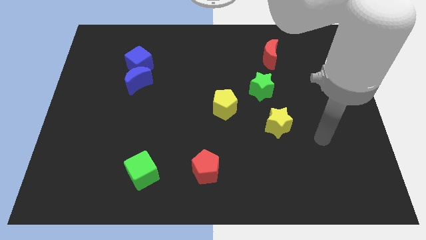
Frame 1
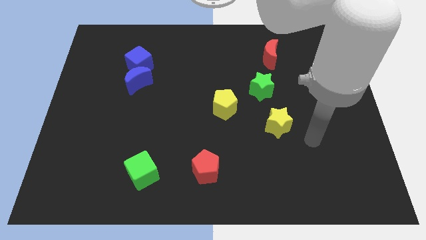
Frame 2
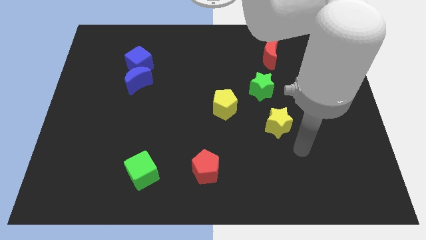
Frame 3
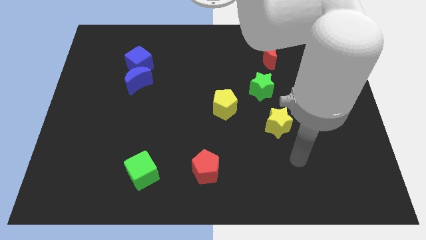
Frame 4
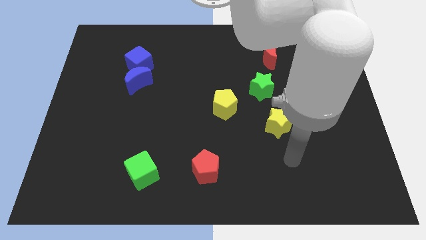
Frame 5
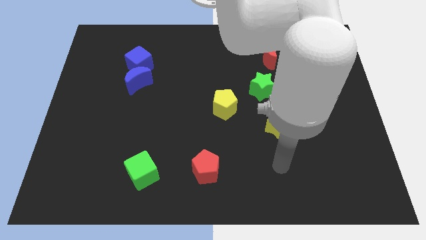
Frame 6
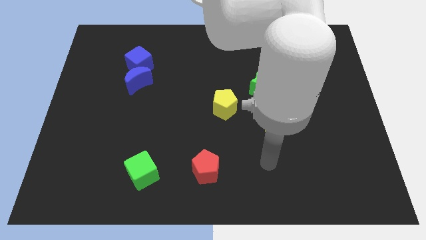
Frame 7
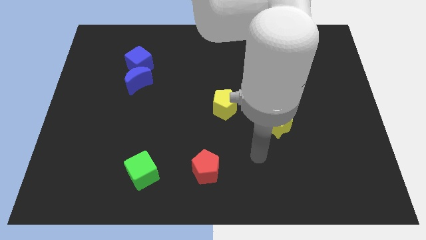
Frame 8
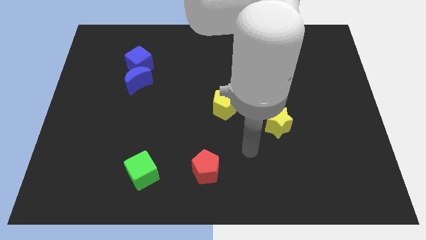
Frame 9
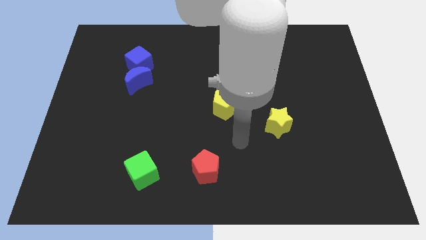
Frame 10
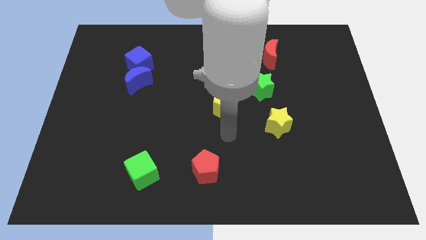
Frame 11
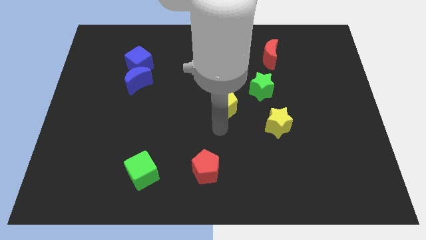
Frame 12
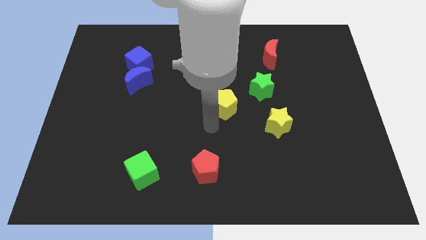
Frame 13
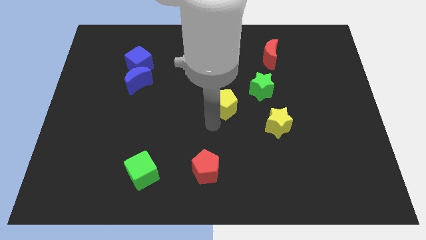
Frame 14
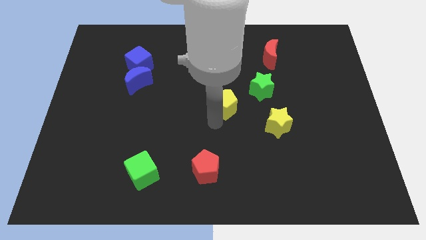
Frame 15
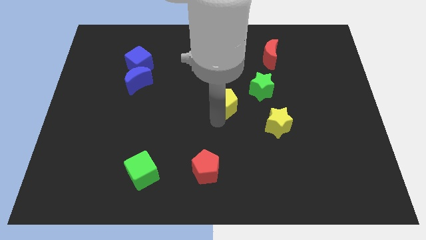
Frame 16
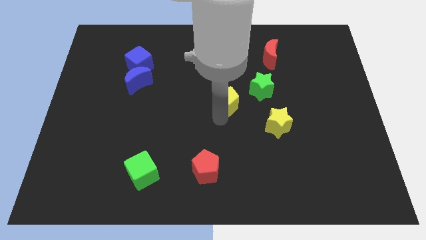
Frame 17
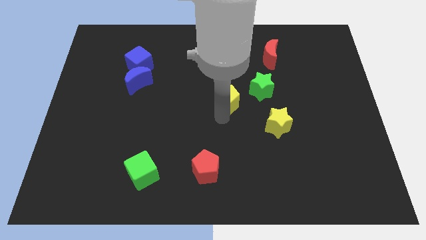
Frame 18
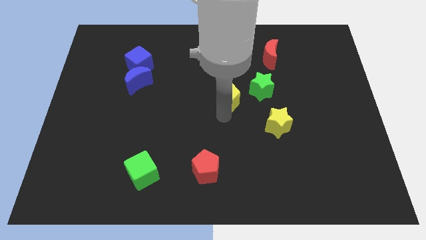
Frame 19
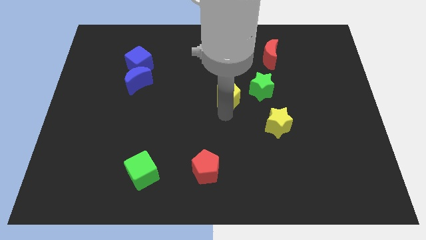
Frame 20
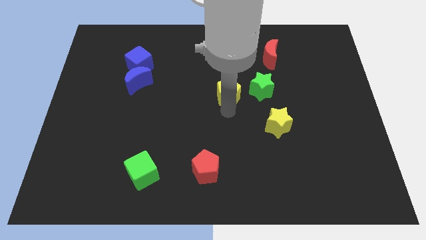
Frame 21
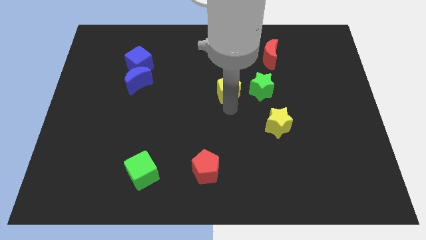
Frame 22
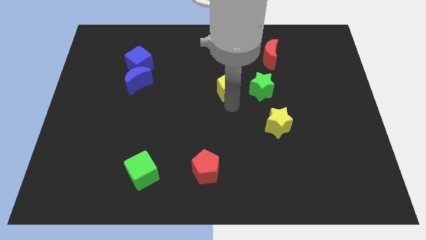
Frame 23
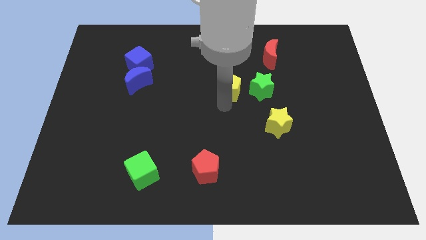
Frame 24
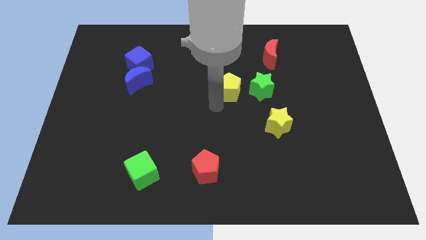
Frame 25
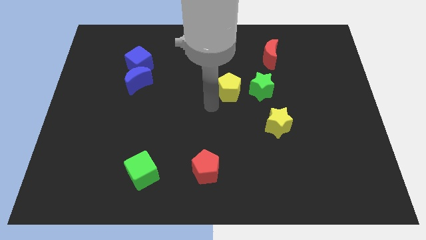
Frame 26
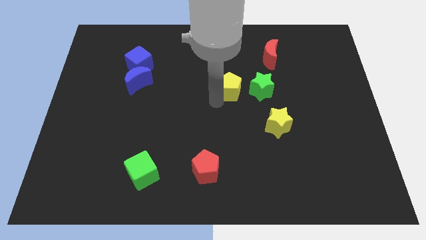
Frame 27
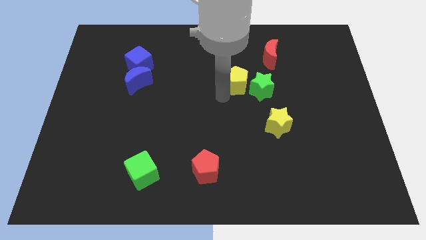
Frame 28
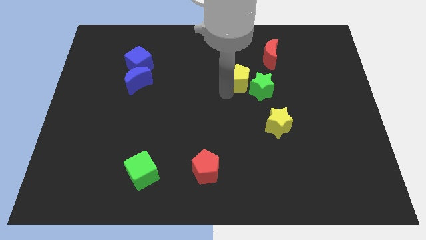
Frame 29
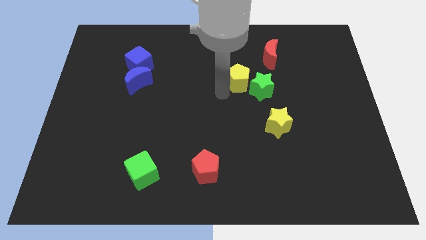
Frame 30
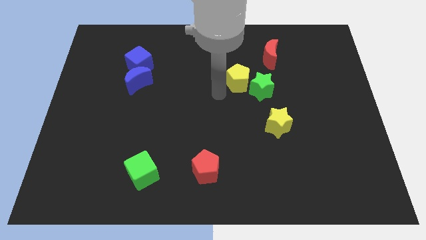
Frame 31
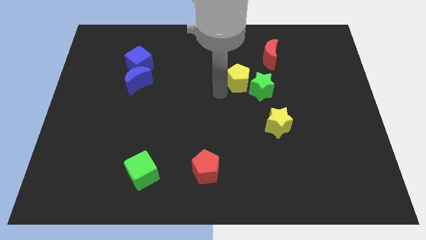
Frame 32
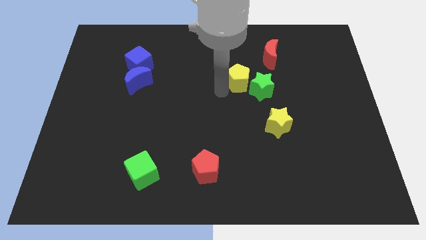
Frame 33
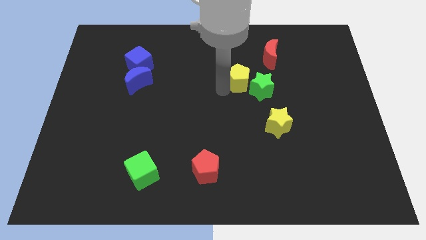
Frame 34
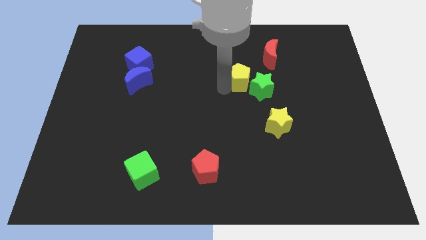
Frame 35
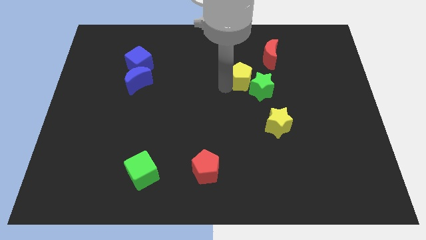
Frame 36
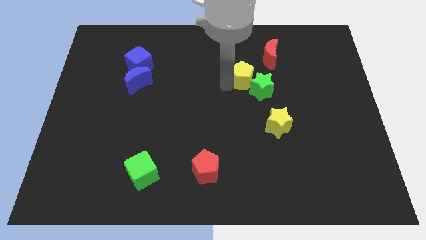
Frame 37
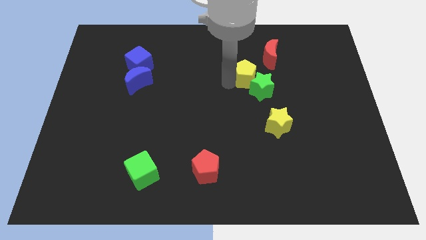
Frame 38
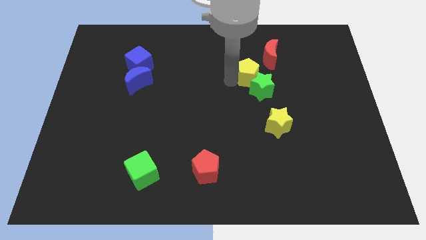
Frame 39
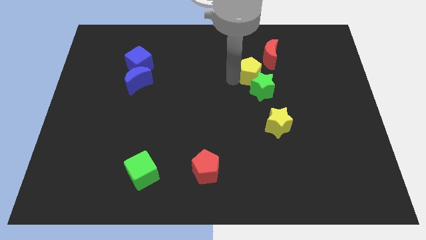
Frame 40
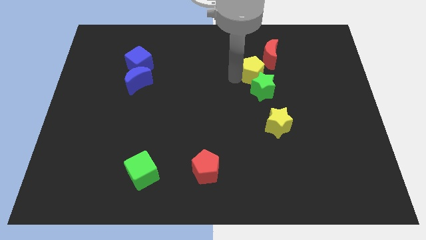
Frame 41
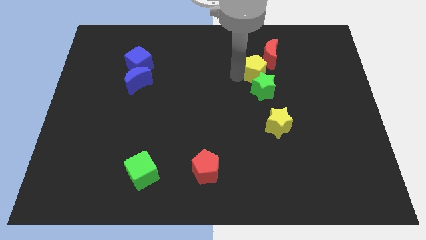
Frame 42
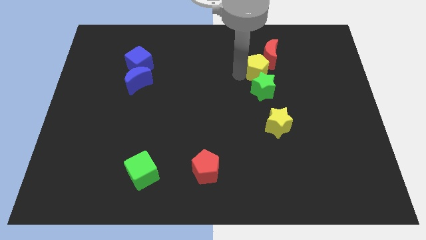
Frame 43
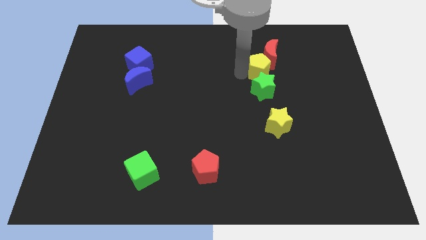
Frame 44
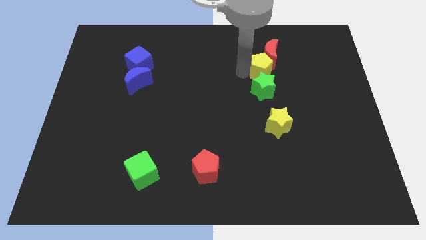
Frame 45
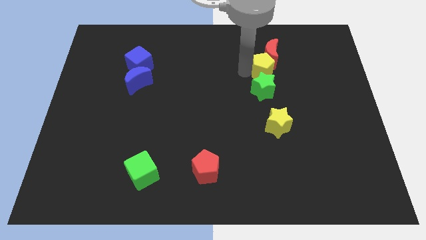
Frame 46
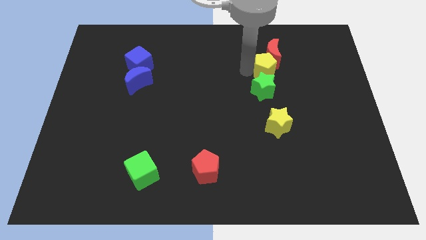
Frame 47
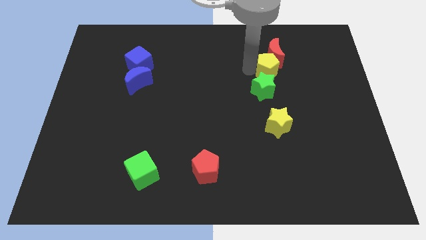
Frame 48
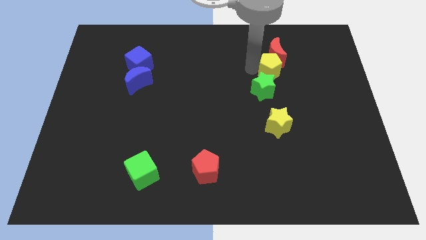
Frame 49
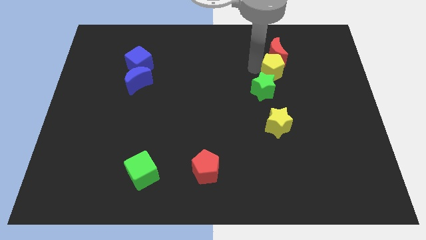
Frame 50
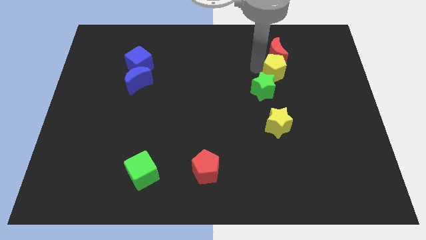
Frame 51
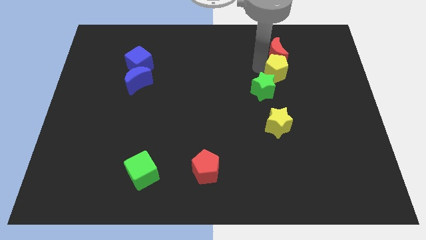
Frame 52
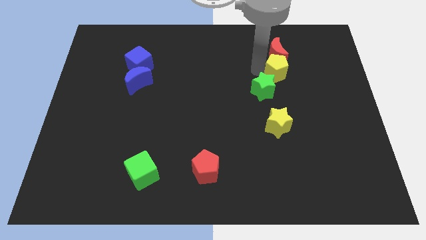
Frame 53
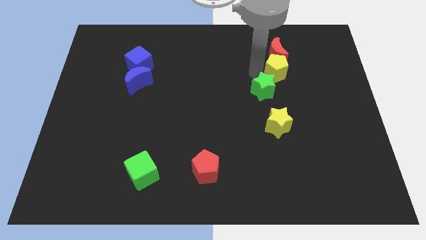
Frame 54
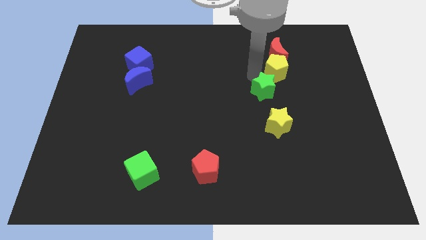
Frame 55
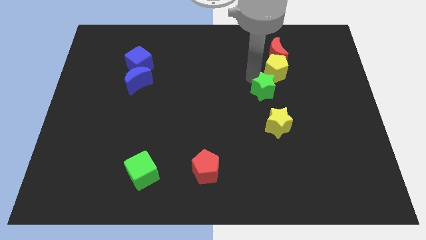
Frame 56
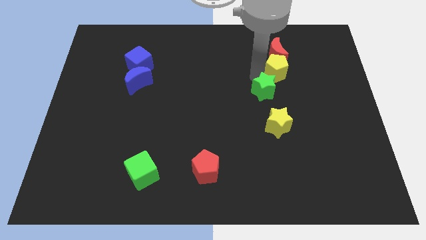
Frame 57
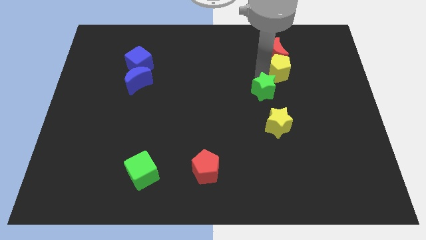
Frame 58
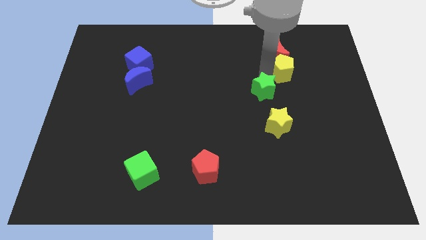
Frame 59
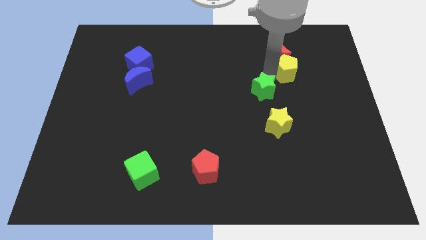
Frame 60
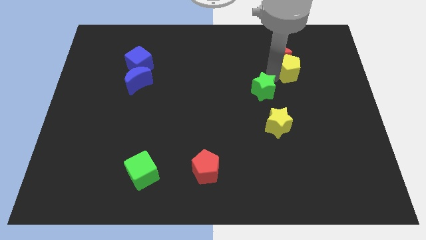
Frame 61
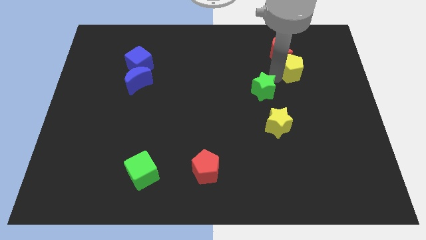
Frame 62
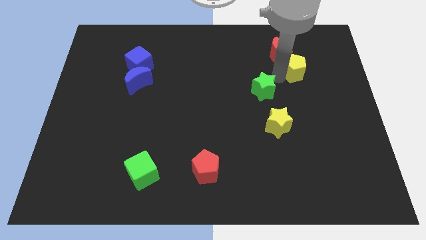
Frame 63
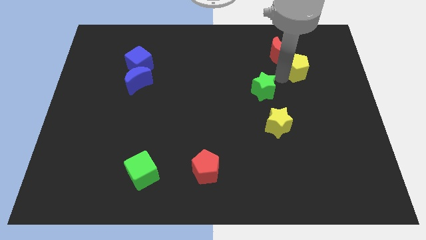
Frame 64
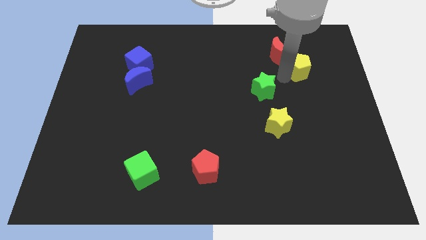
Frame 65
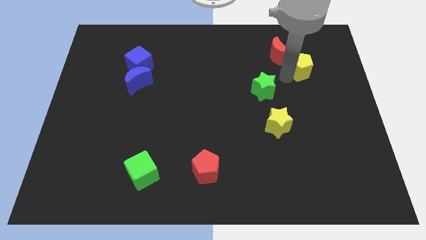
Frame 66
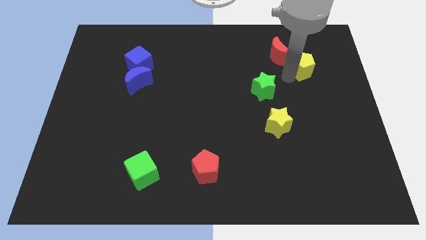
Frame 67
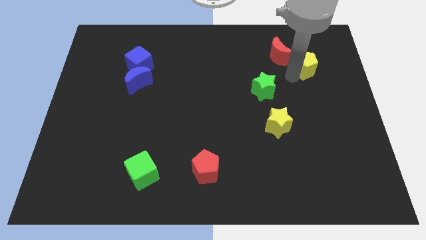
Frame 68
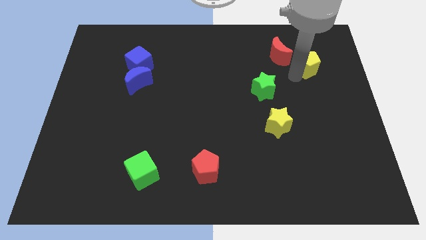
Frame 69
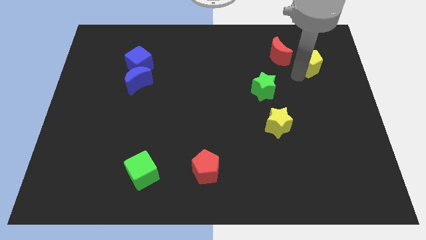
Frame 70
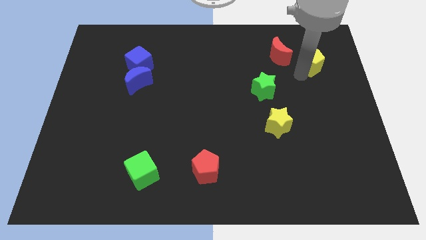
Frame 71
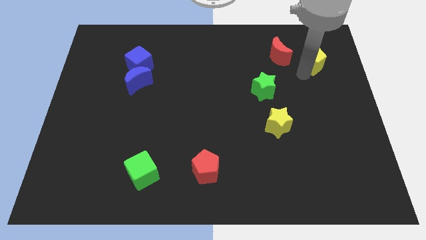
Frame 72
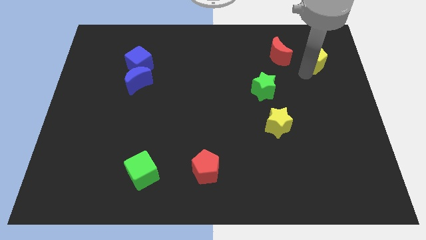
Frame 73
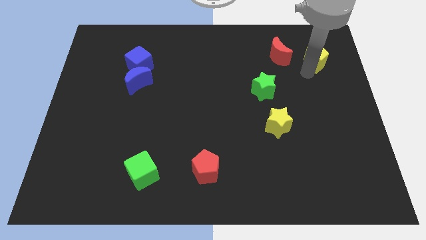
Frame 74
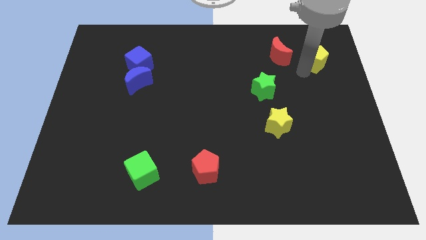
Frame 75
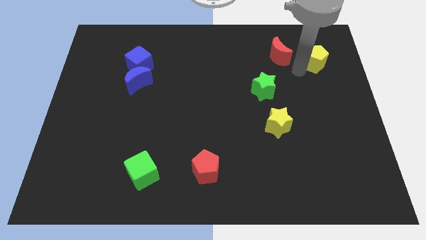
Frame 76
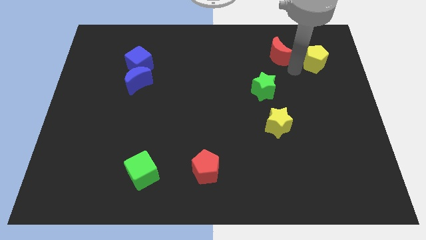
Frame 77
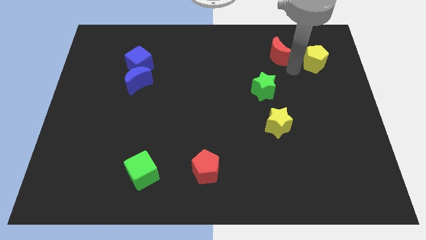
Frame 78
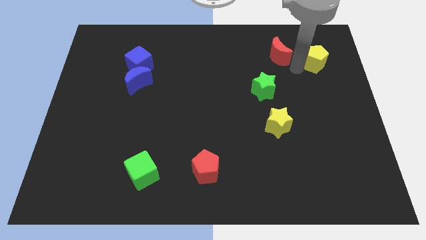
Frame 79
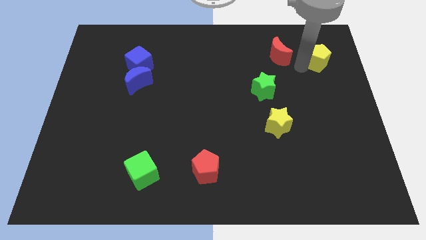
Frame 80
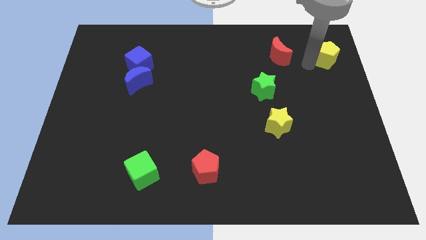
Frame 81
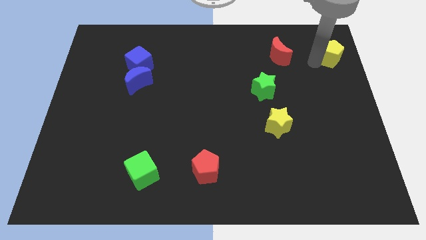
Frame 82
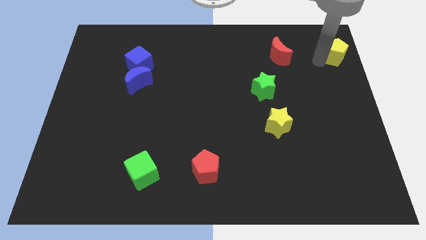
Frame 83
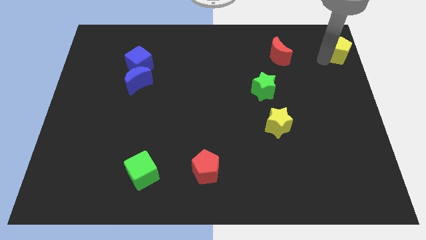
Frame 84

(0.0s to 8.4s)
push the yellow pentagon to the top right of the board
